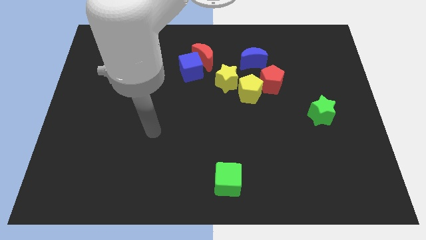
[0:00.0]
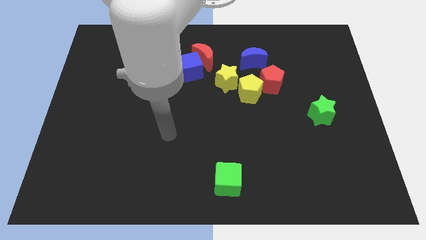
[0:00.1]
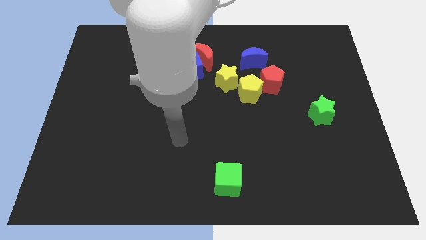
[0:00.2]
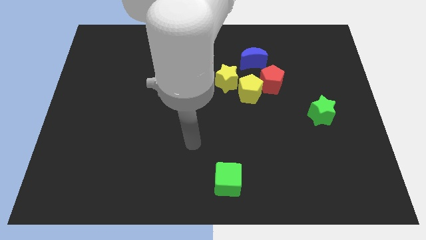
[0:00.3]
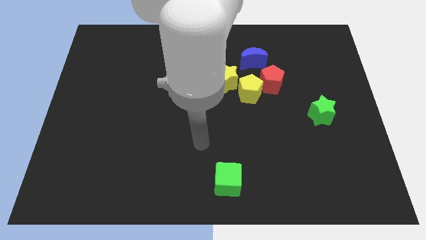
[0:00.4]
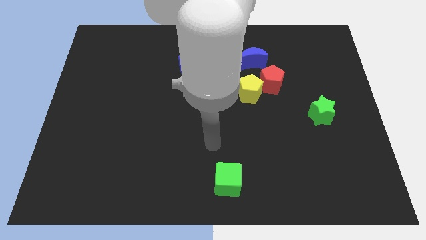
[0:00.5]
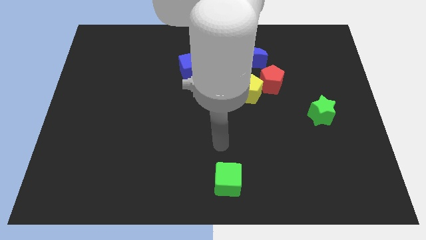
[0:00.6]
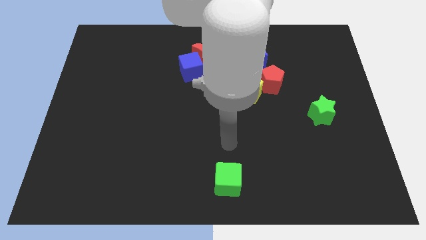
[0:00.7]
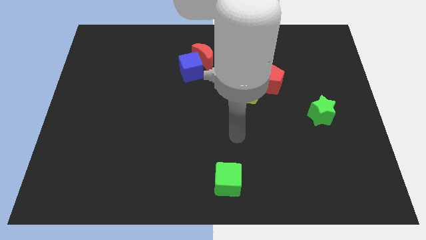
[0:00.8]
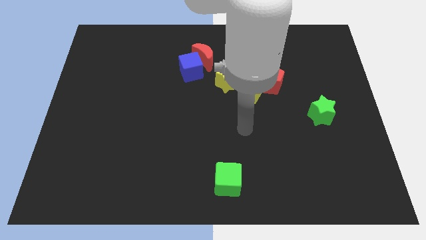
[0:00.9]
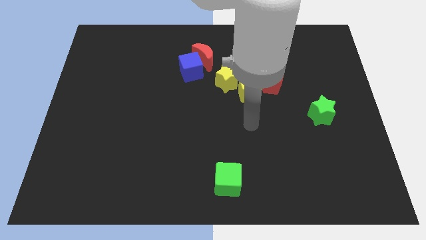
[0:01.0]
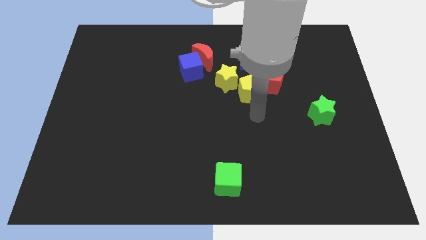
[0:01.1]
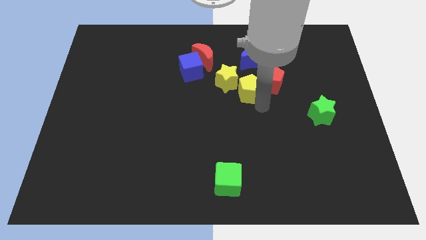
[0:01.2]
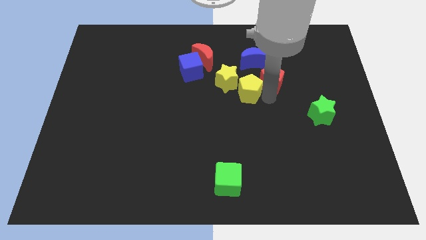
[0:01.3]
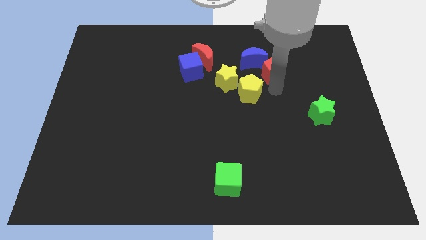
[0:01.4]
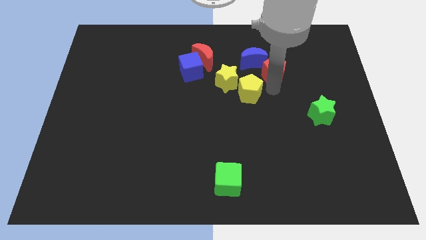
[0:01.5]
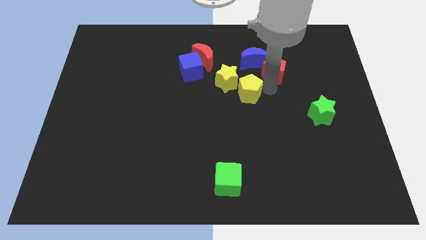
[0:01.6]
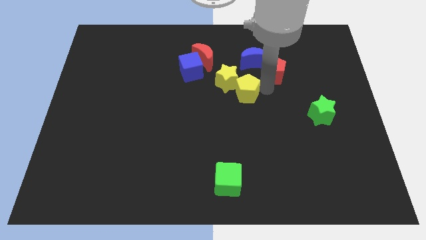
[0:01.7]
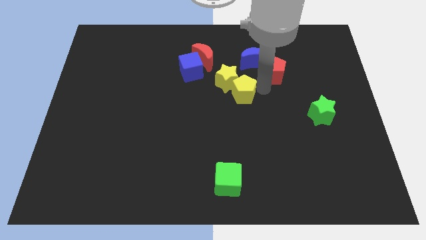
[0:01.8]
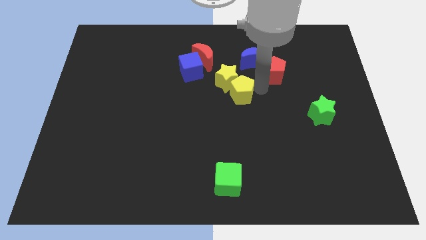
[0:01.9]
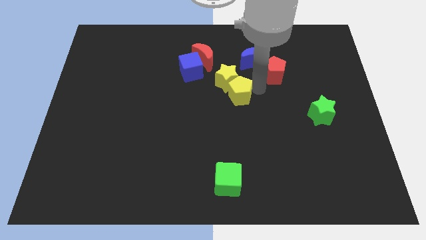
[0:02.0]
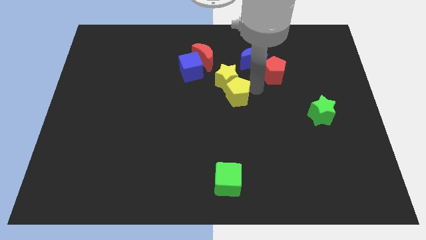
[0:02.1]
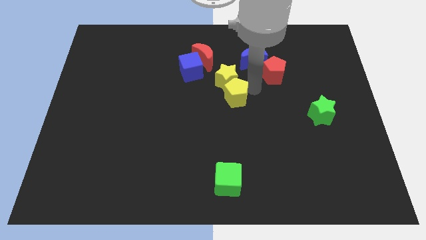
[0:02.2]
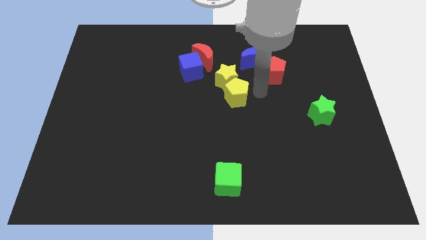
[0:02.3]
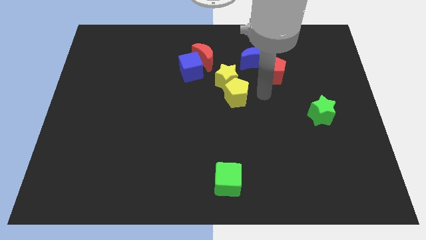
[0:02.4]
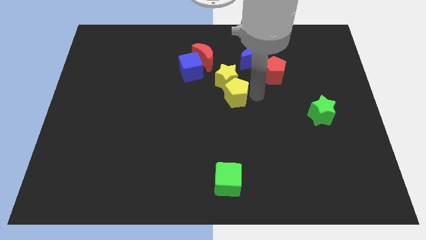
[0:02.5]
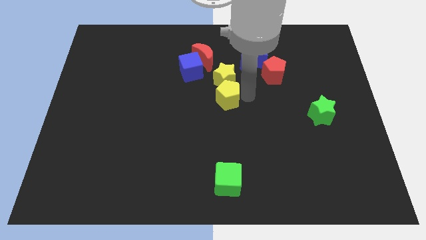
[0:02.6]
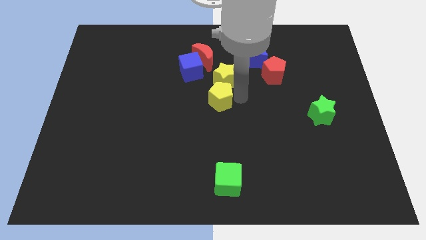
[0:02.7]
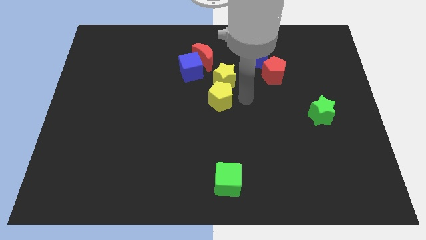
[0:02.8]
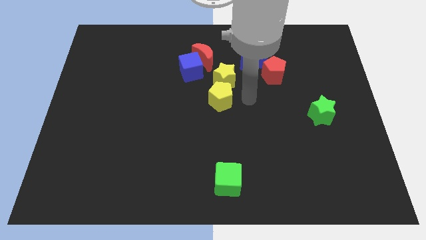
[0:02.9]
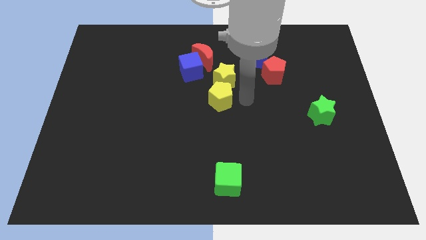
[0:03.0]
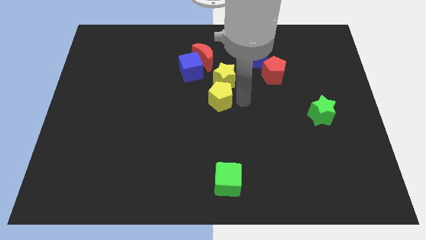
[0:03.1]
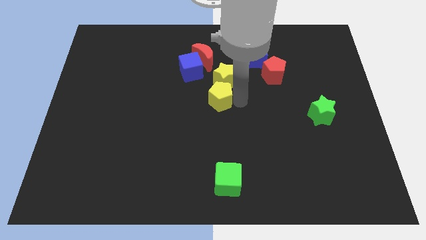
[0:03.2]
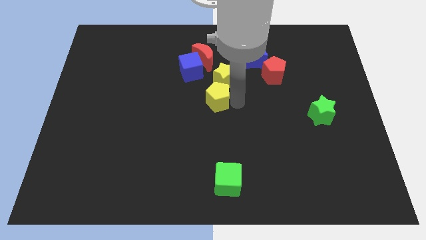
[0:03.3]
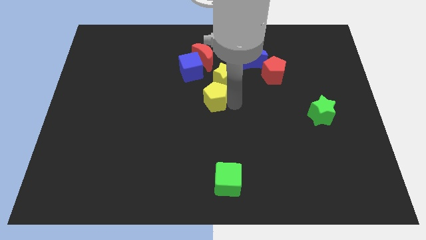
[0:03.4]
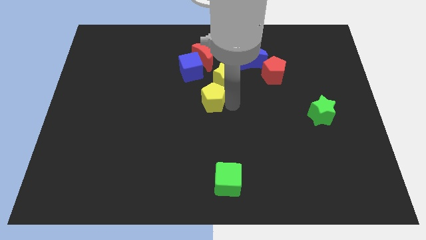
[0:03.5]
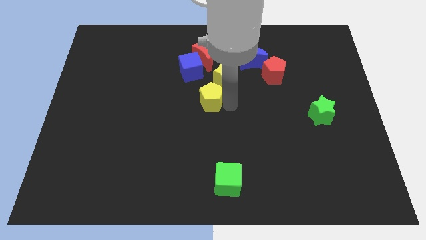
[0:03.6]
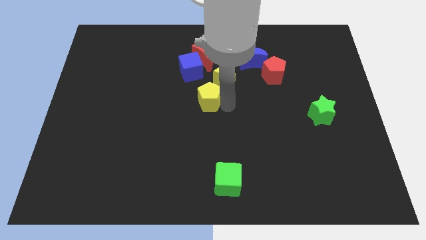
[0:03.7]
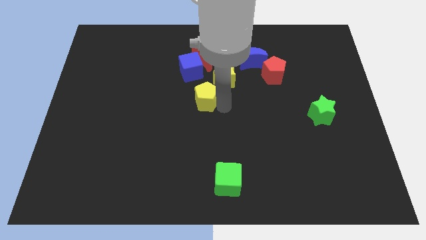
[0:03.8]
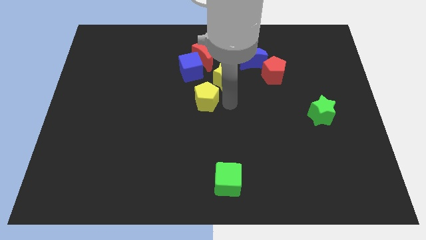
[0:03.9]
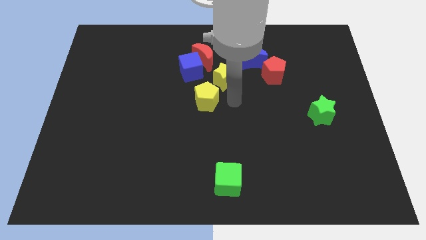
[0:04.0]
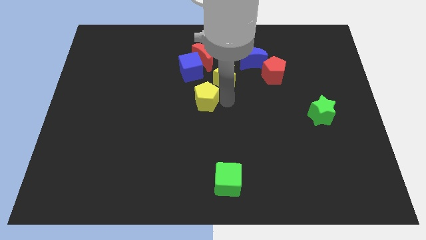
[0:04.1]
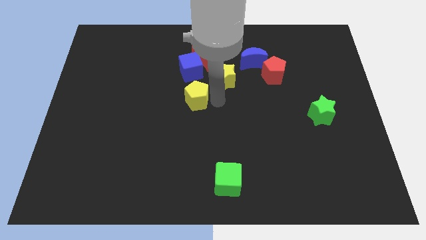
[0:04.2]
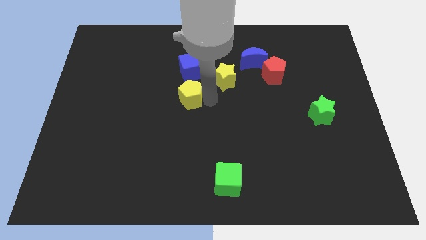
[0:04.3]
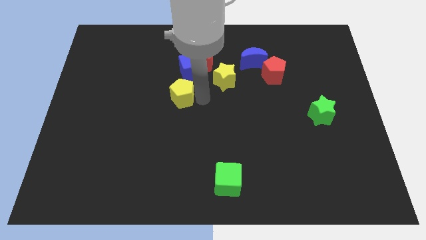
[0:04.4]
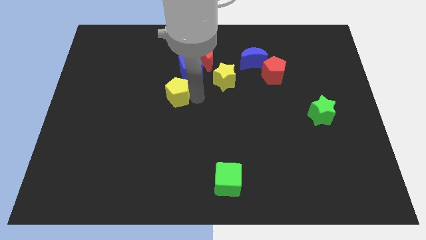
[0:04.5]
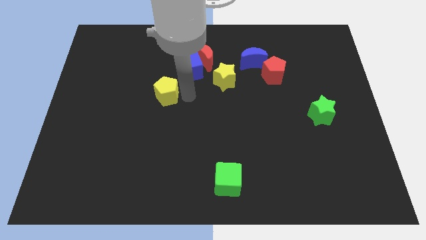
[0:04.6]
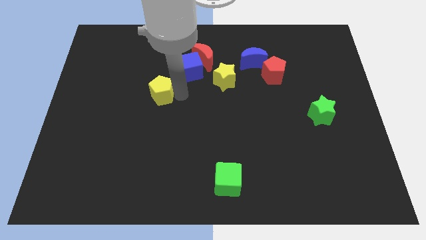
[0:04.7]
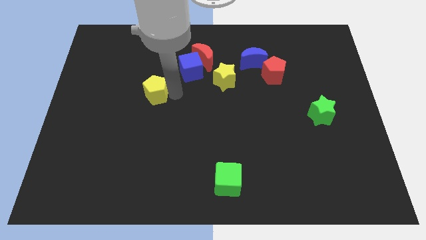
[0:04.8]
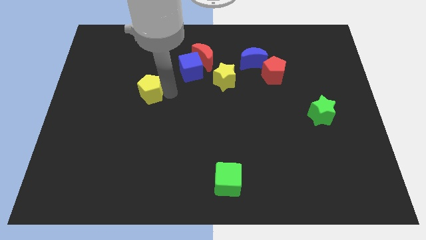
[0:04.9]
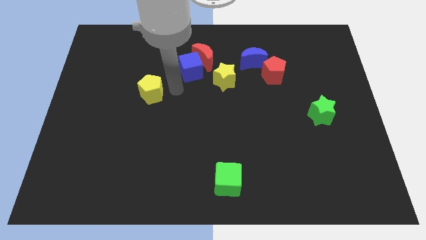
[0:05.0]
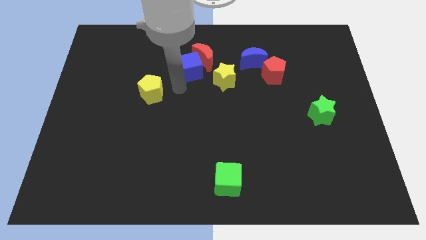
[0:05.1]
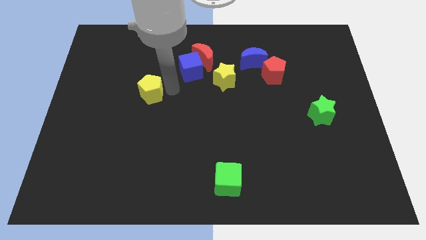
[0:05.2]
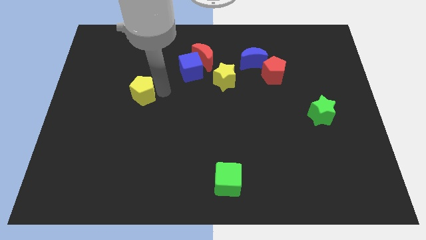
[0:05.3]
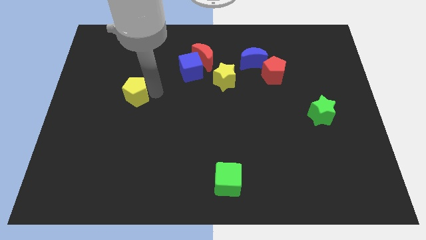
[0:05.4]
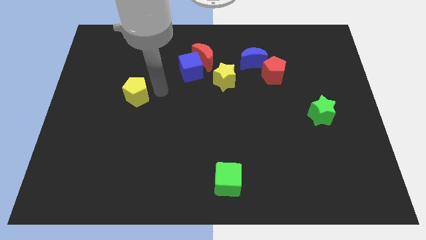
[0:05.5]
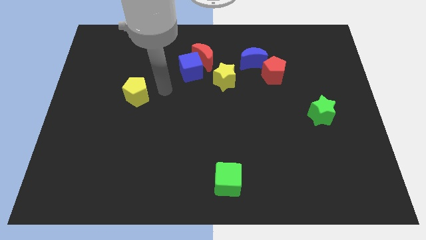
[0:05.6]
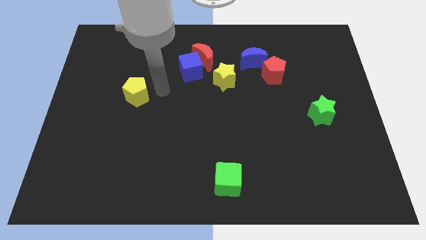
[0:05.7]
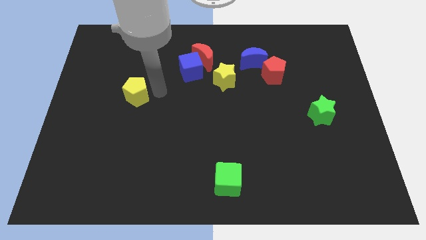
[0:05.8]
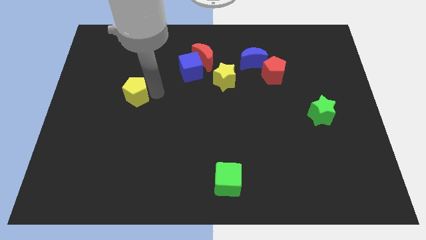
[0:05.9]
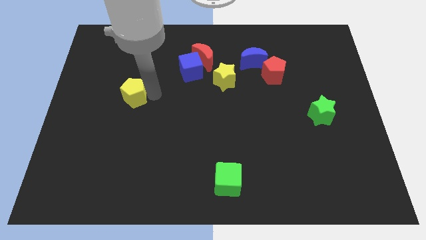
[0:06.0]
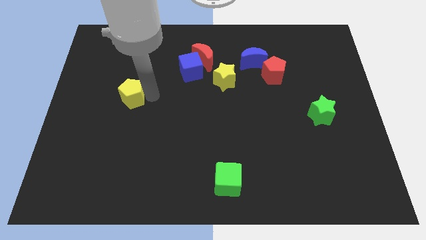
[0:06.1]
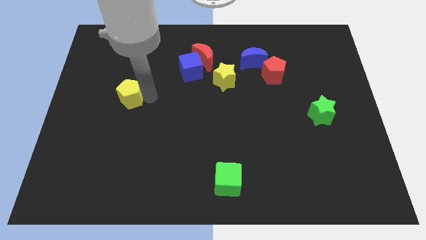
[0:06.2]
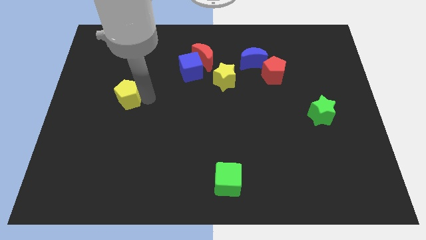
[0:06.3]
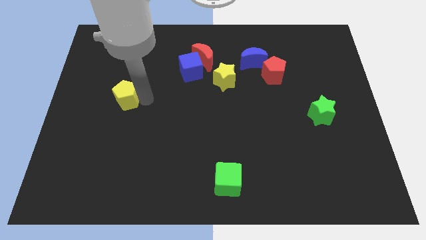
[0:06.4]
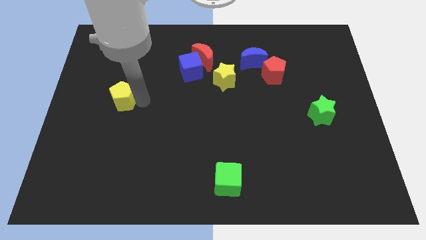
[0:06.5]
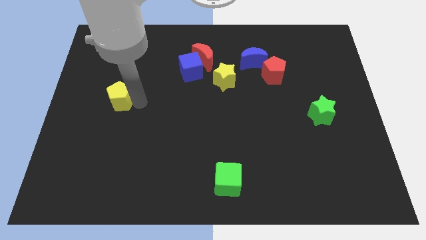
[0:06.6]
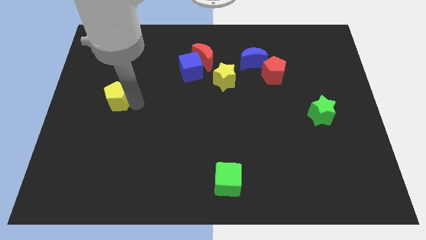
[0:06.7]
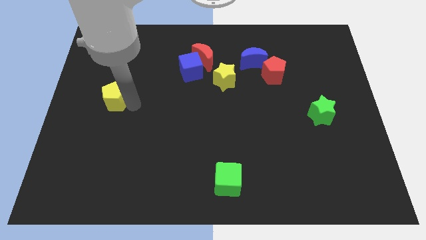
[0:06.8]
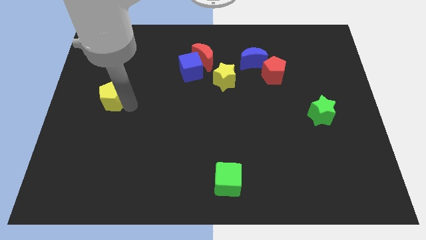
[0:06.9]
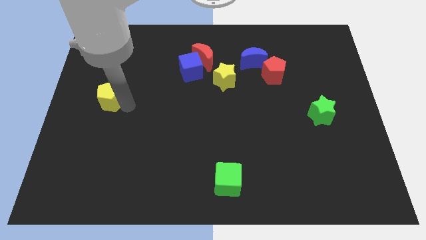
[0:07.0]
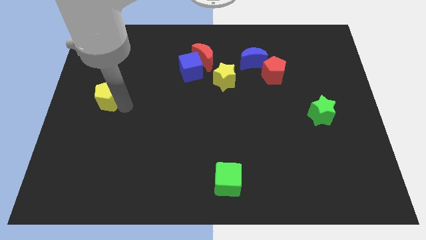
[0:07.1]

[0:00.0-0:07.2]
slide the yellow pentagon to the center left
